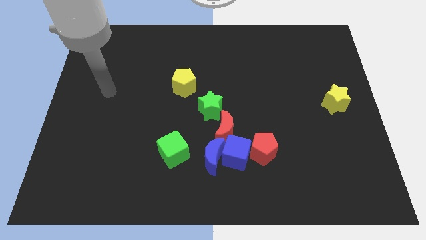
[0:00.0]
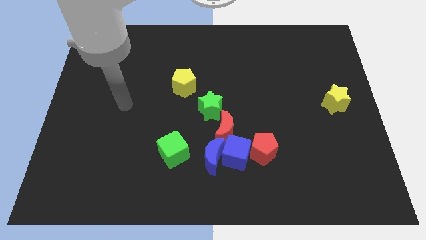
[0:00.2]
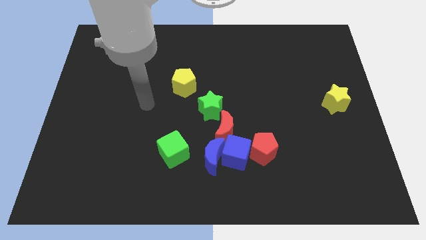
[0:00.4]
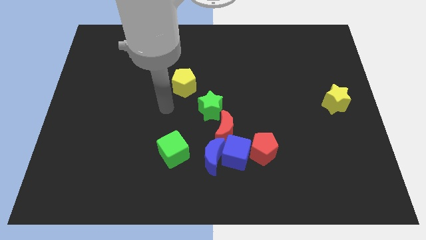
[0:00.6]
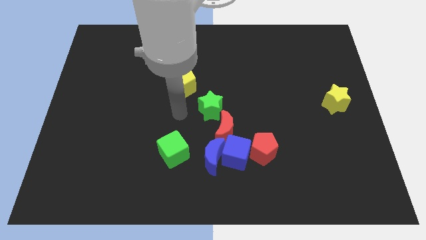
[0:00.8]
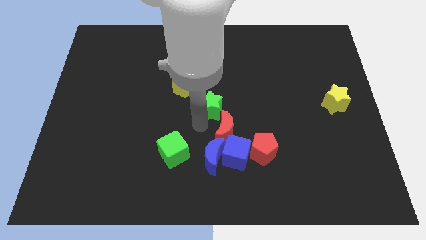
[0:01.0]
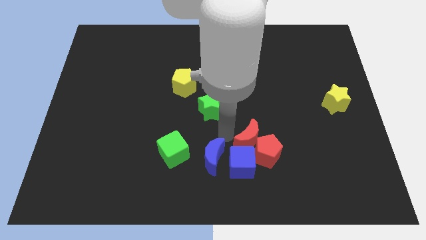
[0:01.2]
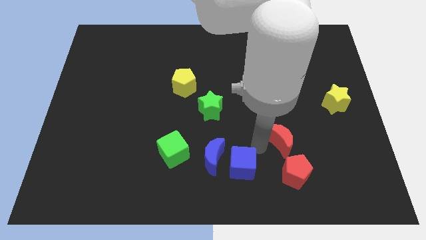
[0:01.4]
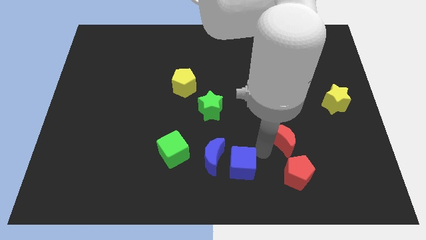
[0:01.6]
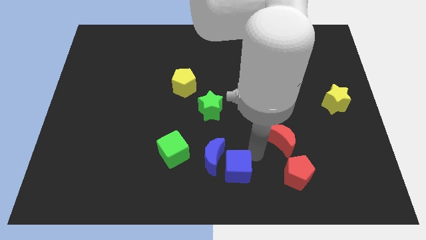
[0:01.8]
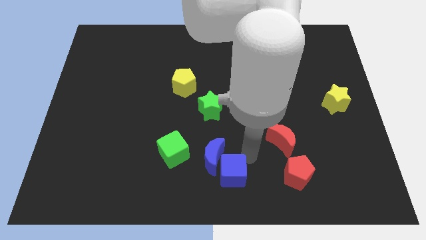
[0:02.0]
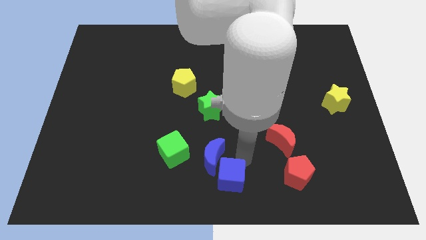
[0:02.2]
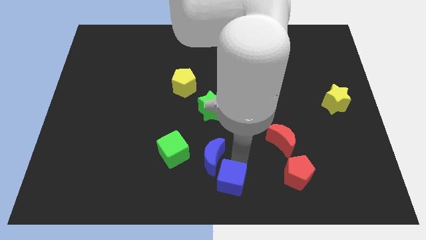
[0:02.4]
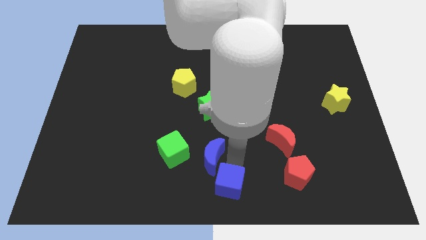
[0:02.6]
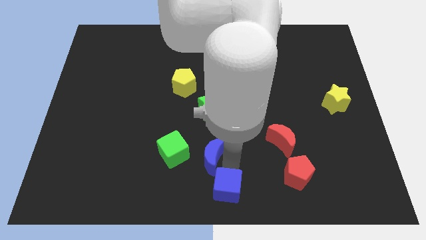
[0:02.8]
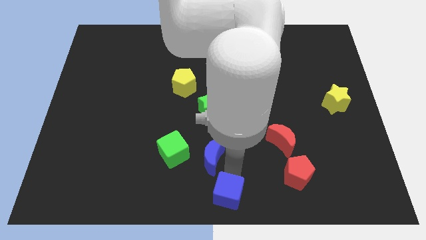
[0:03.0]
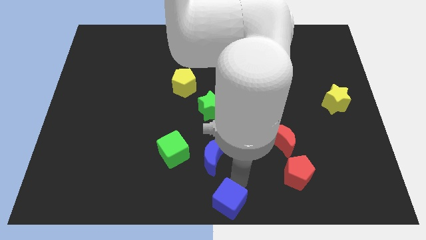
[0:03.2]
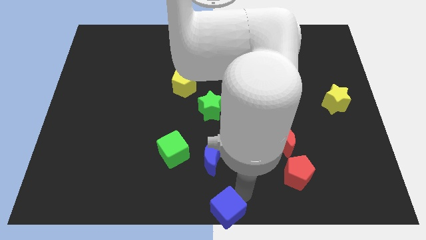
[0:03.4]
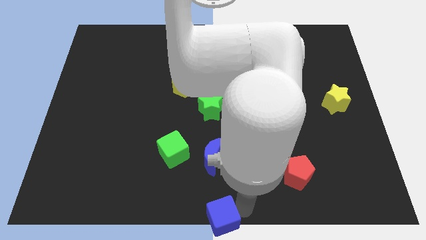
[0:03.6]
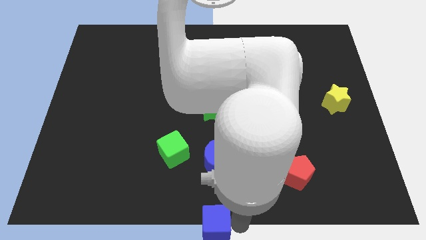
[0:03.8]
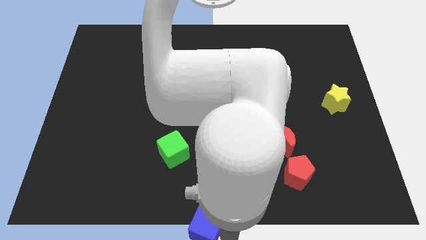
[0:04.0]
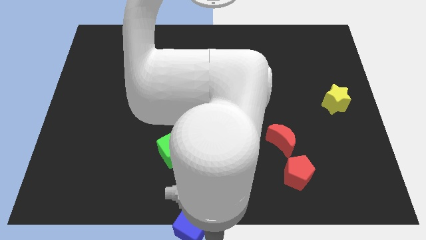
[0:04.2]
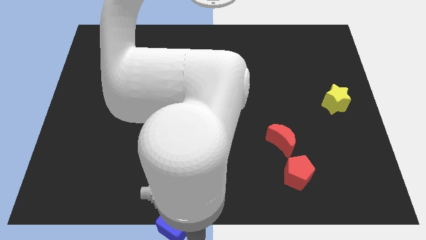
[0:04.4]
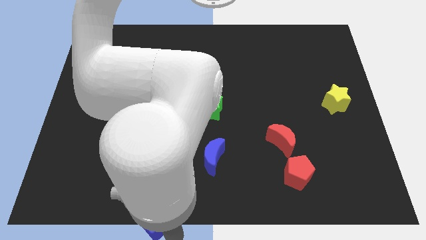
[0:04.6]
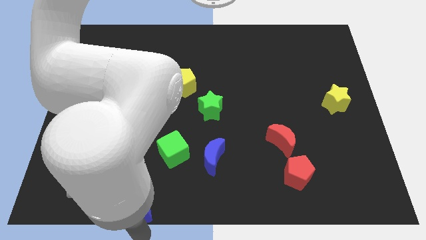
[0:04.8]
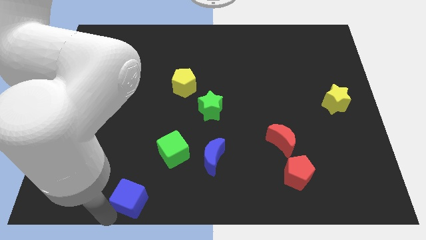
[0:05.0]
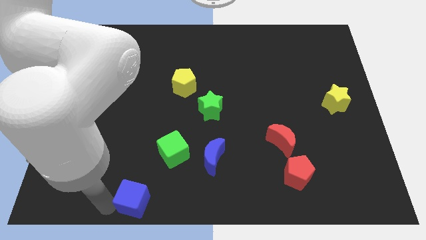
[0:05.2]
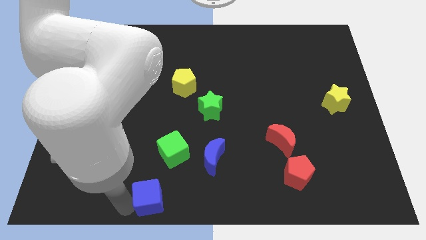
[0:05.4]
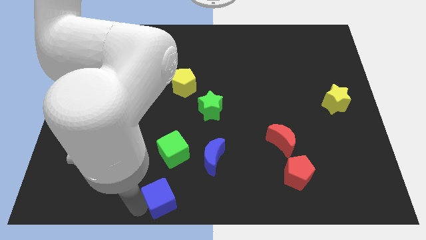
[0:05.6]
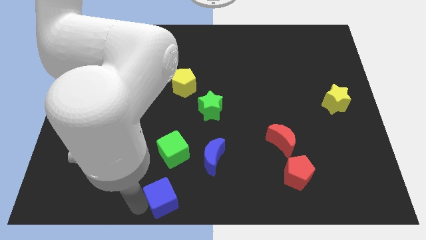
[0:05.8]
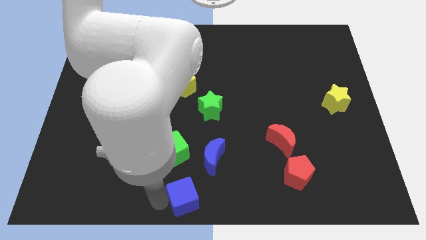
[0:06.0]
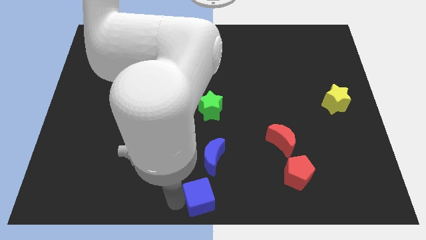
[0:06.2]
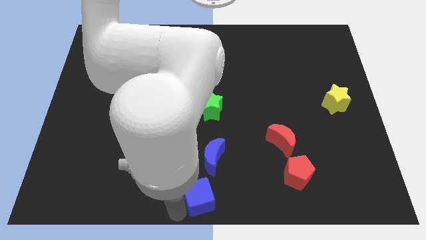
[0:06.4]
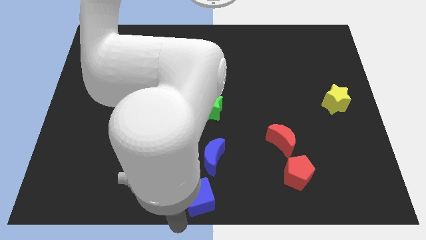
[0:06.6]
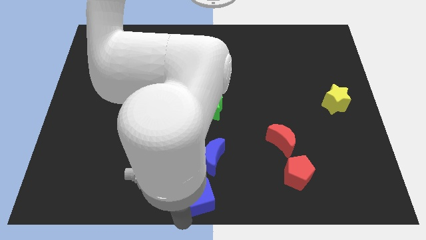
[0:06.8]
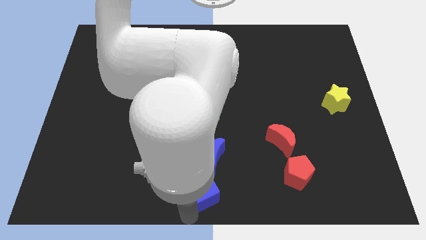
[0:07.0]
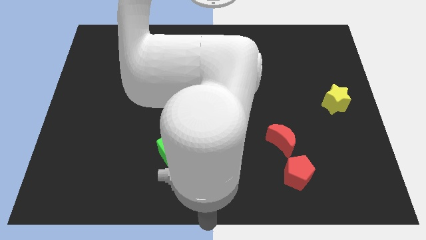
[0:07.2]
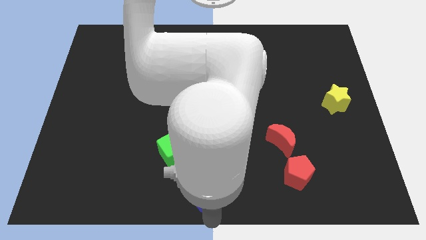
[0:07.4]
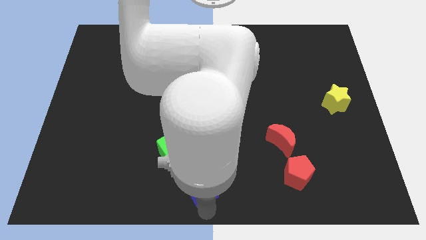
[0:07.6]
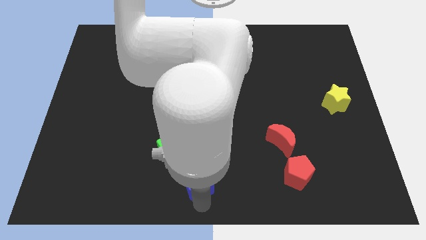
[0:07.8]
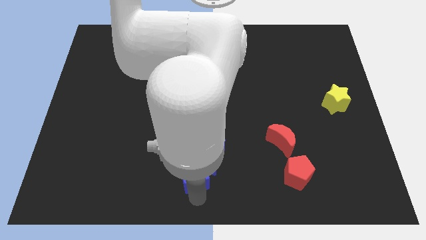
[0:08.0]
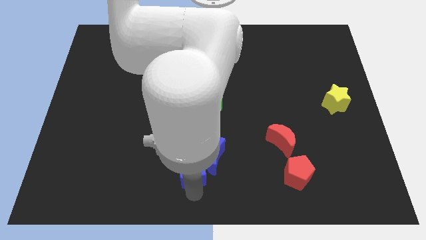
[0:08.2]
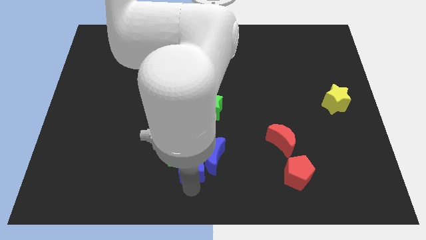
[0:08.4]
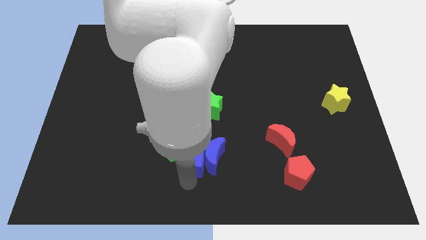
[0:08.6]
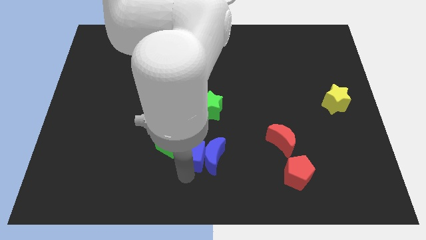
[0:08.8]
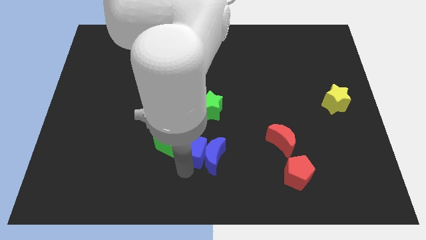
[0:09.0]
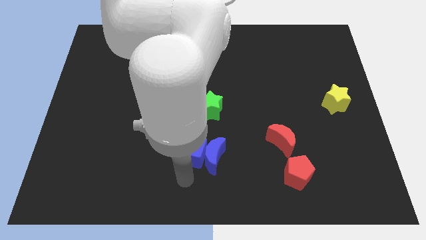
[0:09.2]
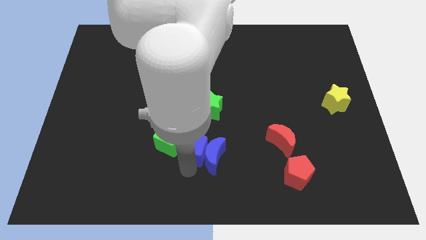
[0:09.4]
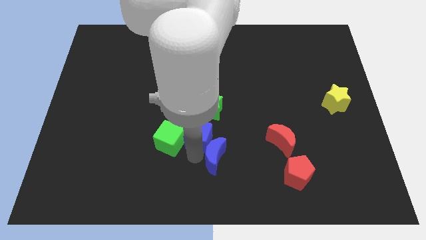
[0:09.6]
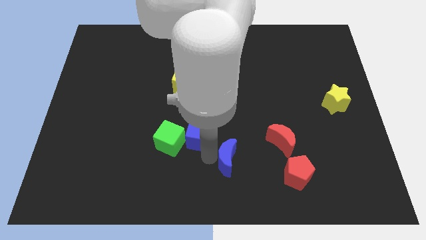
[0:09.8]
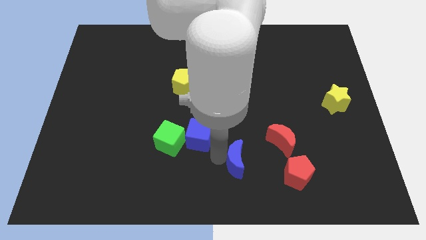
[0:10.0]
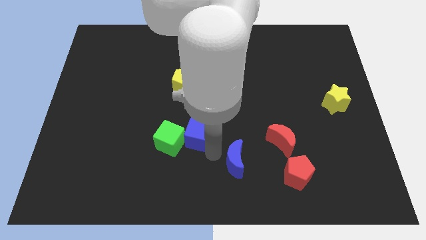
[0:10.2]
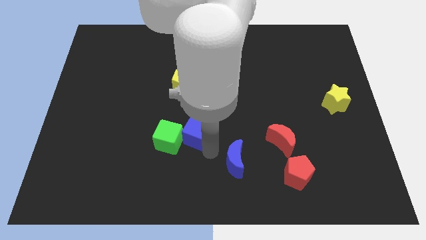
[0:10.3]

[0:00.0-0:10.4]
put the blue cube to the bottom side of the yellow pentagon

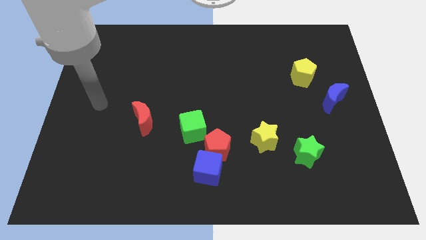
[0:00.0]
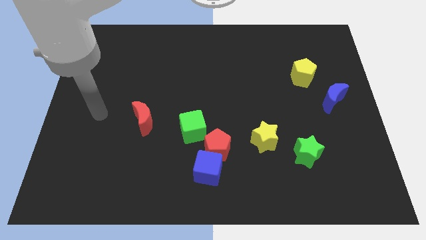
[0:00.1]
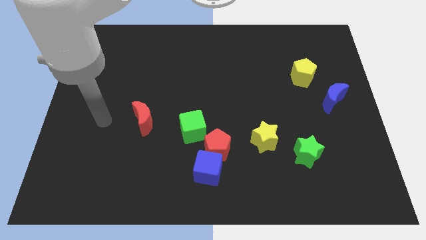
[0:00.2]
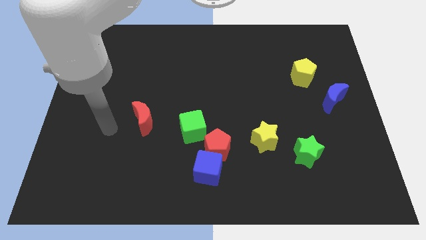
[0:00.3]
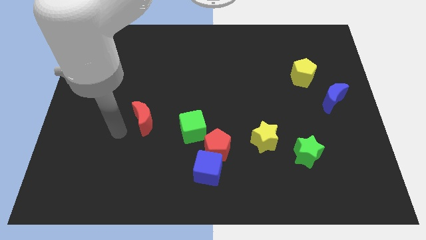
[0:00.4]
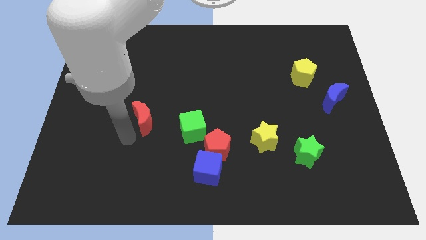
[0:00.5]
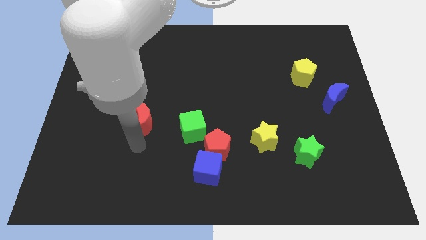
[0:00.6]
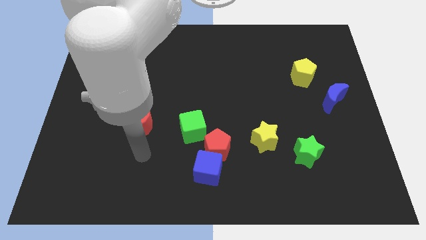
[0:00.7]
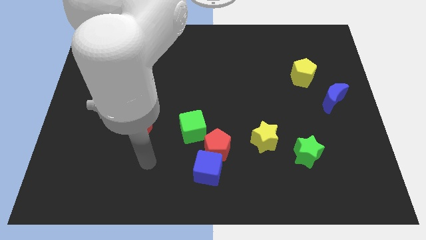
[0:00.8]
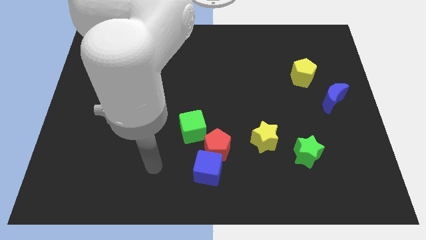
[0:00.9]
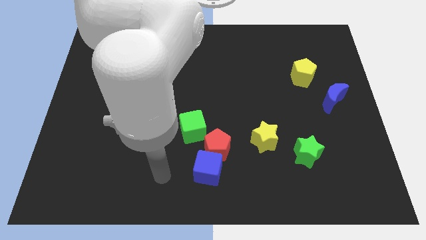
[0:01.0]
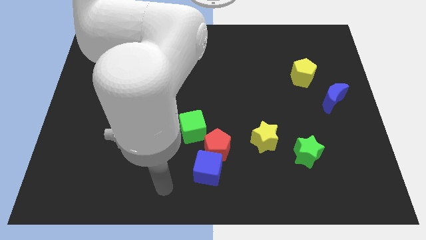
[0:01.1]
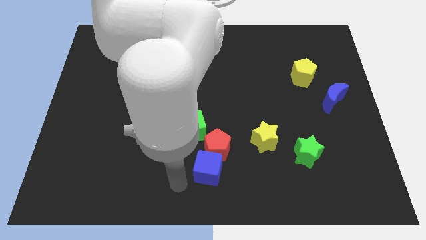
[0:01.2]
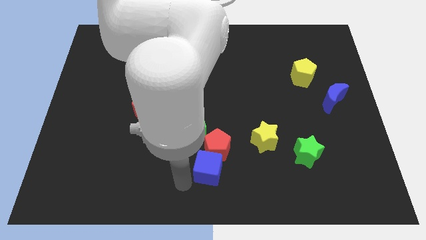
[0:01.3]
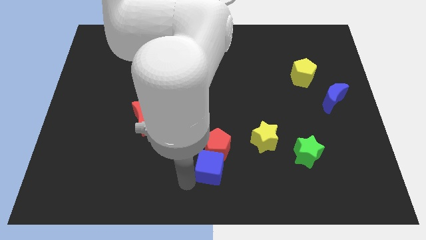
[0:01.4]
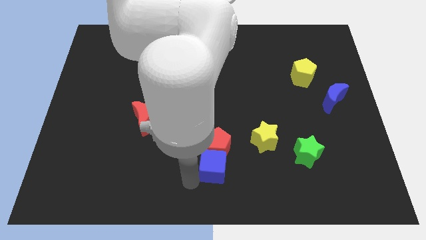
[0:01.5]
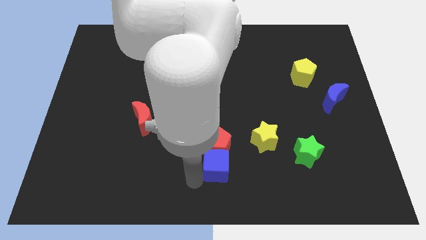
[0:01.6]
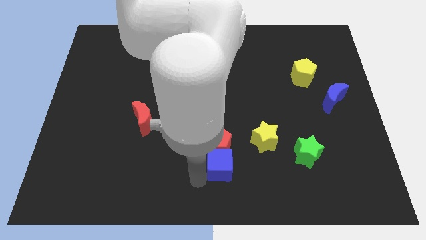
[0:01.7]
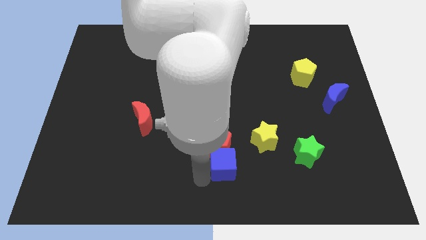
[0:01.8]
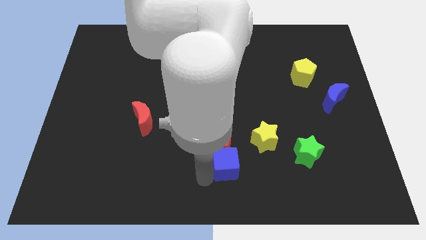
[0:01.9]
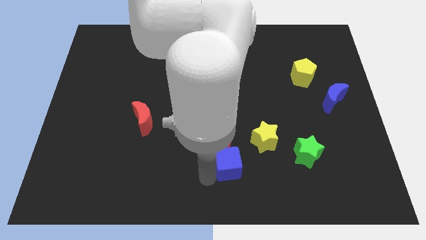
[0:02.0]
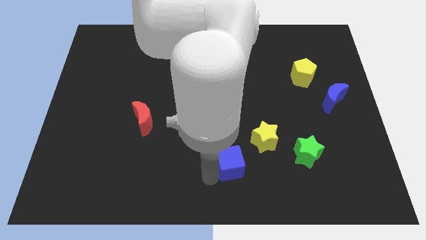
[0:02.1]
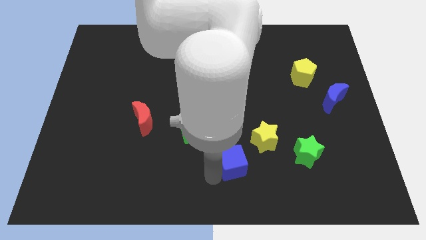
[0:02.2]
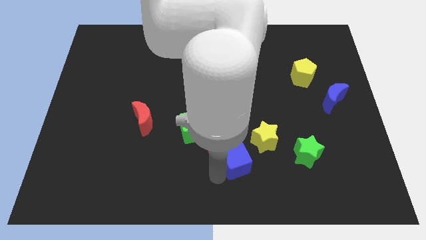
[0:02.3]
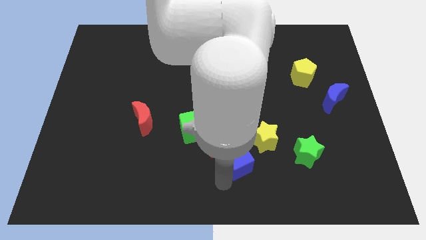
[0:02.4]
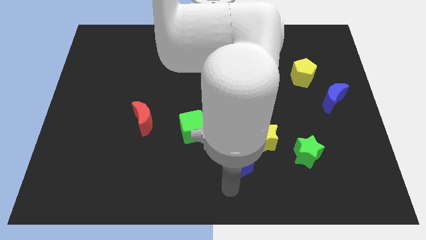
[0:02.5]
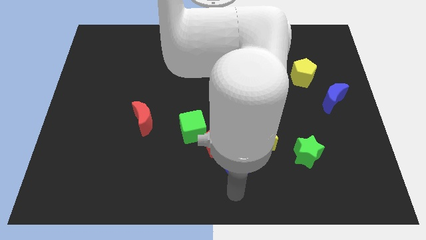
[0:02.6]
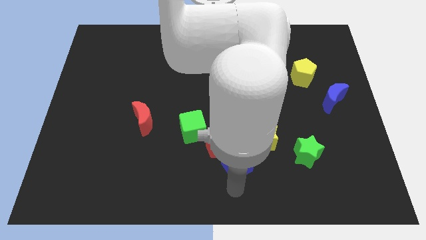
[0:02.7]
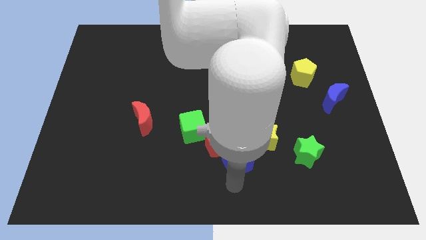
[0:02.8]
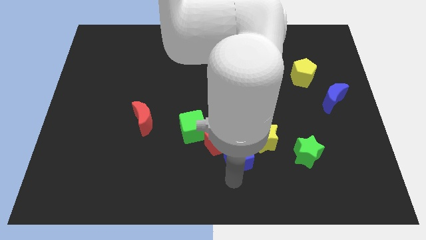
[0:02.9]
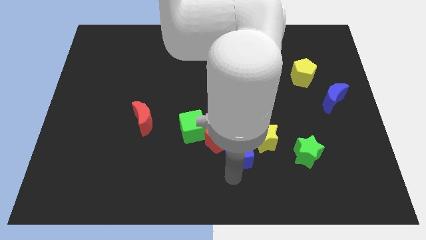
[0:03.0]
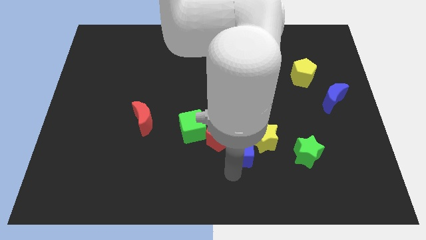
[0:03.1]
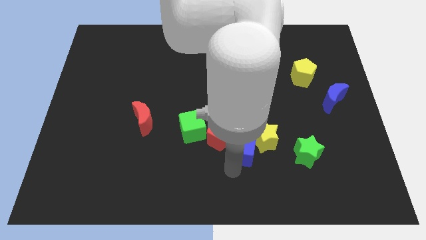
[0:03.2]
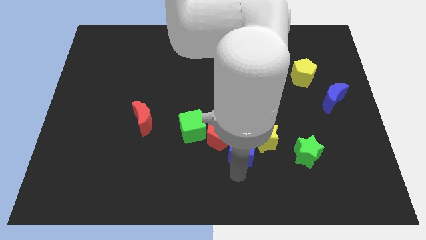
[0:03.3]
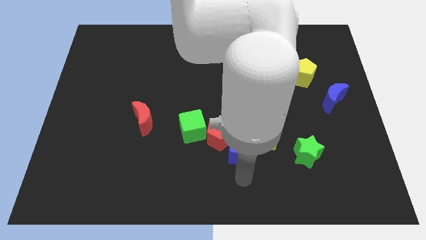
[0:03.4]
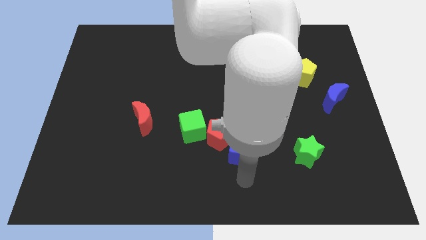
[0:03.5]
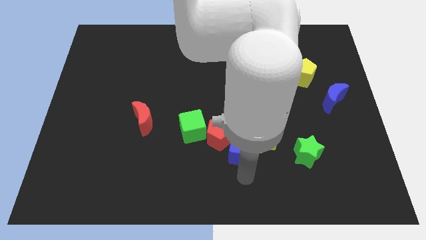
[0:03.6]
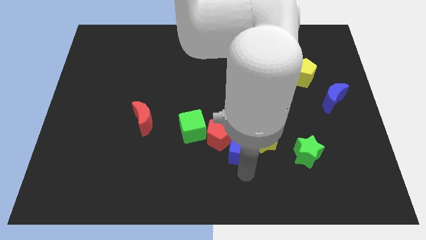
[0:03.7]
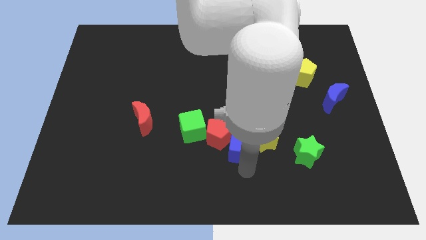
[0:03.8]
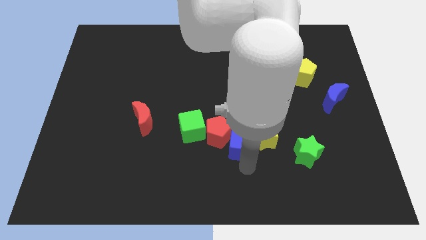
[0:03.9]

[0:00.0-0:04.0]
put the blue cube to the right side of the green cube
